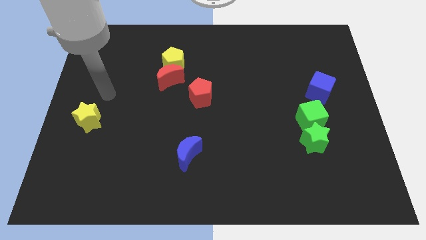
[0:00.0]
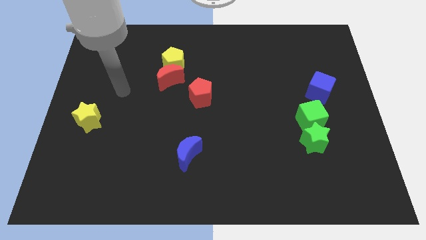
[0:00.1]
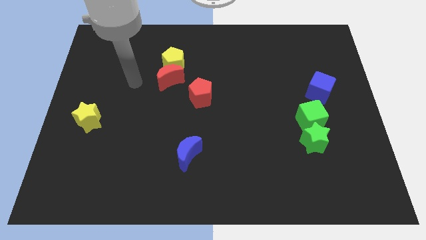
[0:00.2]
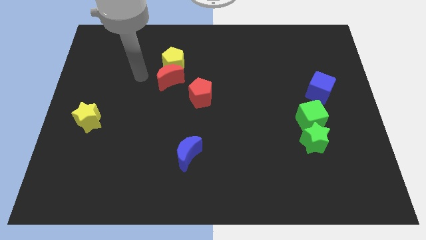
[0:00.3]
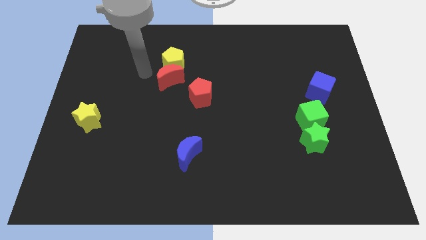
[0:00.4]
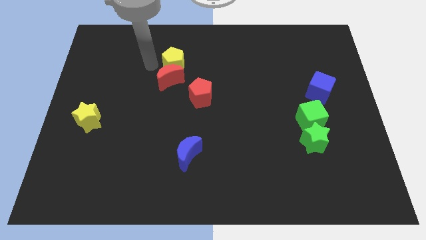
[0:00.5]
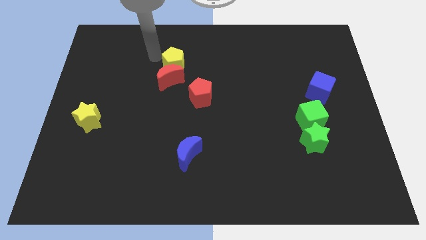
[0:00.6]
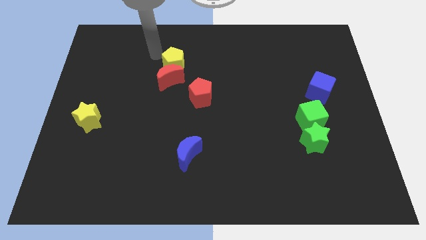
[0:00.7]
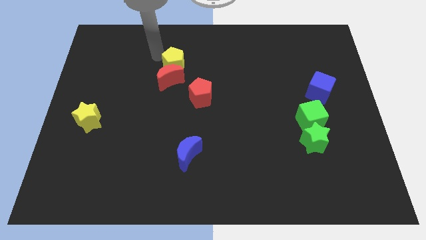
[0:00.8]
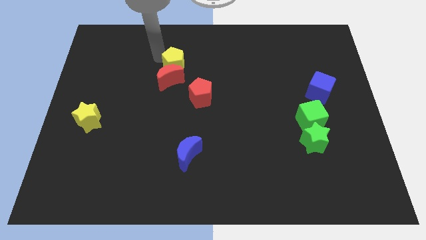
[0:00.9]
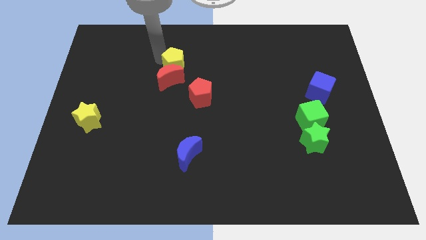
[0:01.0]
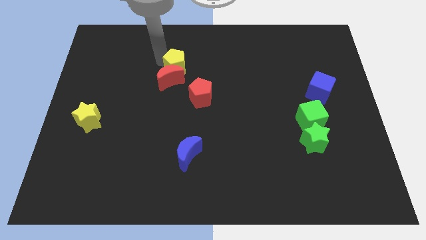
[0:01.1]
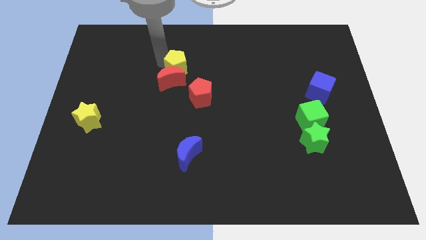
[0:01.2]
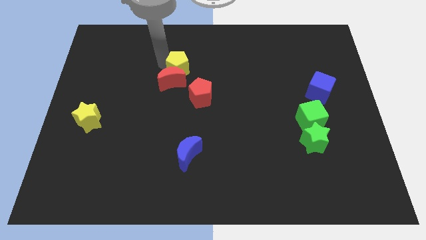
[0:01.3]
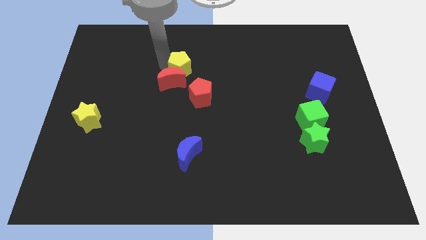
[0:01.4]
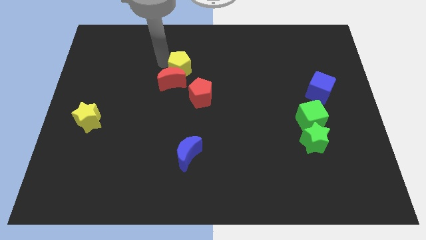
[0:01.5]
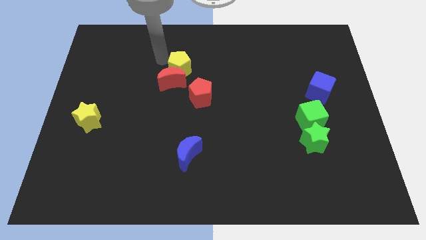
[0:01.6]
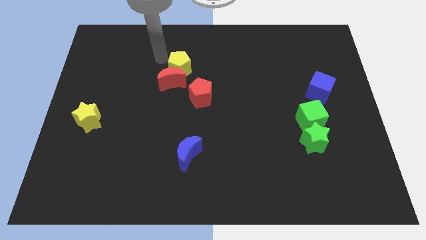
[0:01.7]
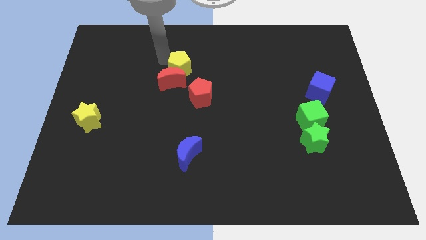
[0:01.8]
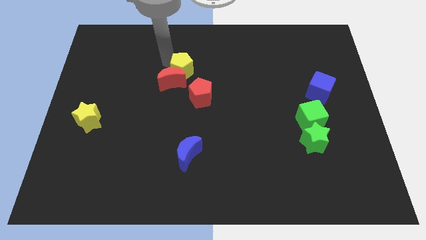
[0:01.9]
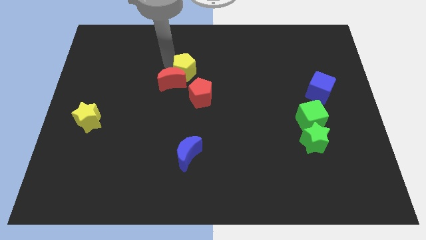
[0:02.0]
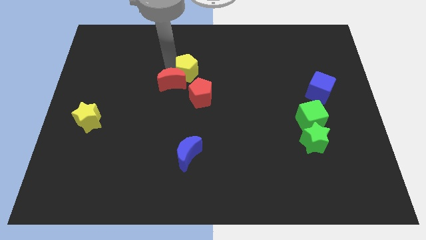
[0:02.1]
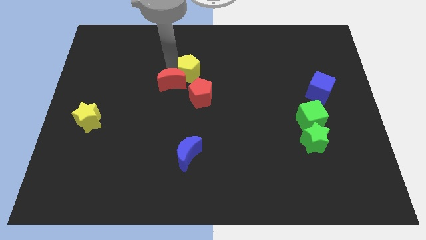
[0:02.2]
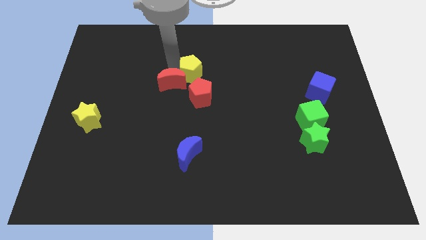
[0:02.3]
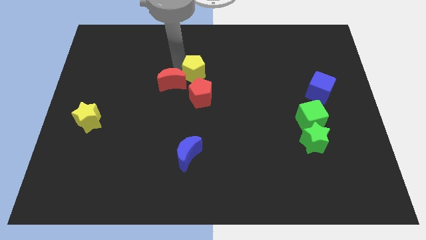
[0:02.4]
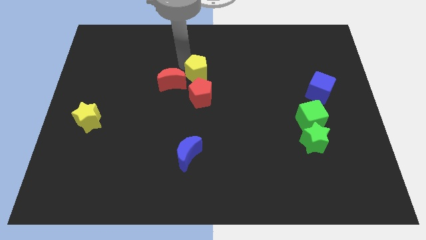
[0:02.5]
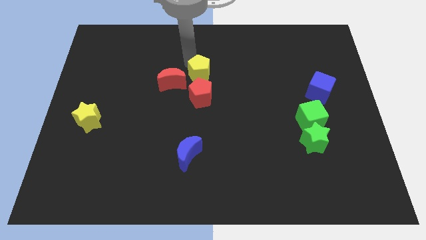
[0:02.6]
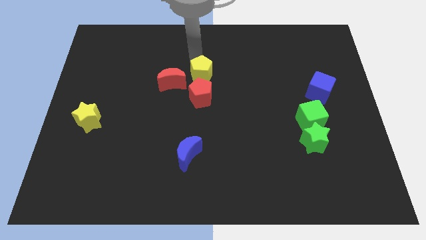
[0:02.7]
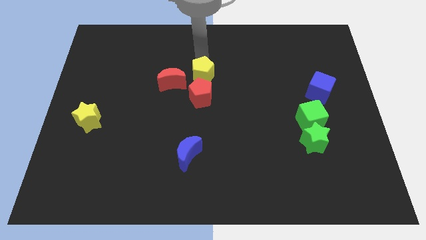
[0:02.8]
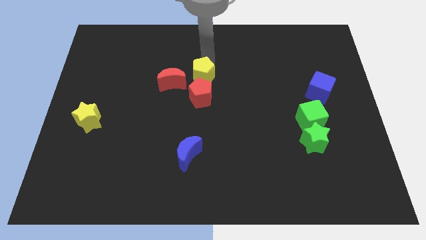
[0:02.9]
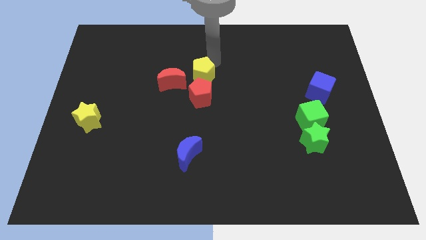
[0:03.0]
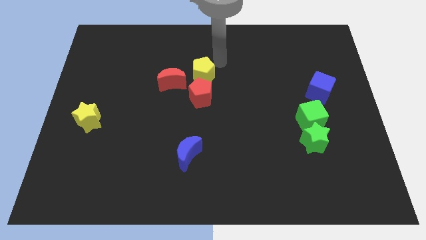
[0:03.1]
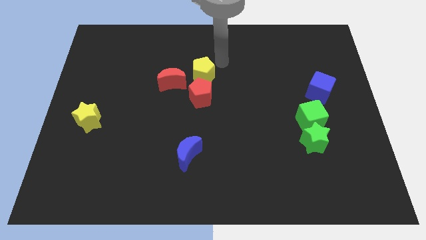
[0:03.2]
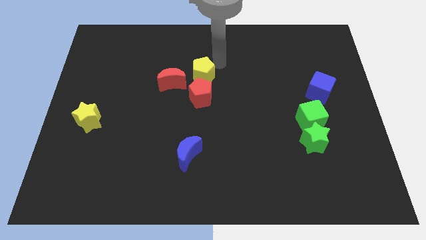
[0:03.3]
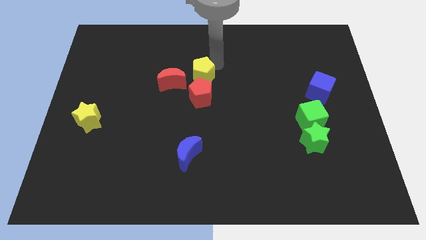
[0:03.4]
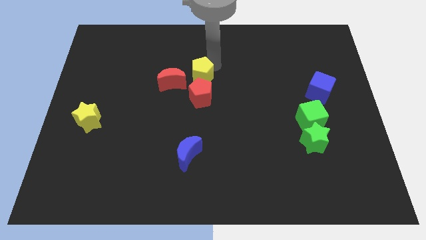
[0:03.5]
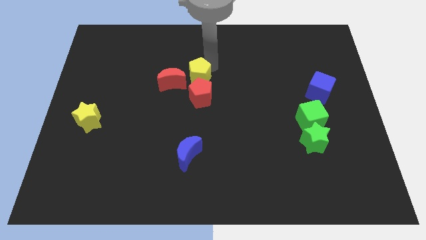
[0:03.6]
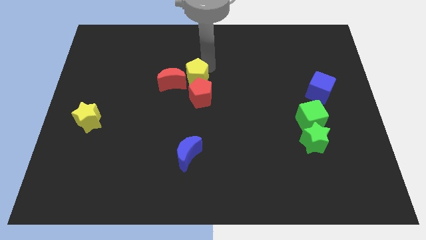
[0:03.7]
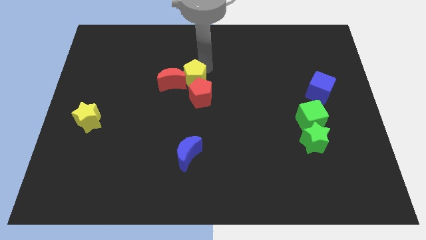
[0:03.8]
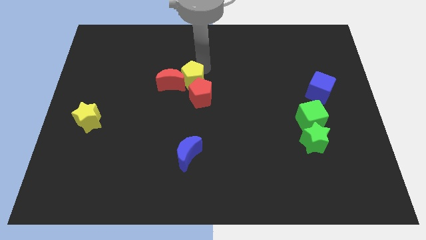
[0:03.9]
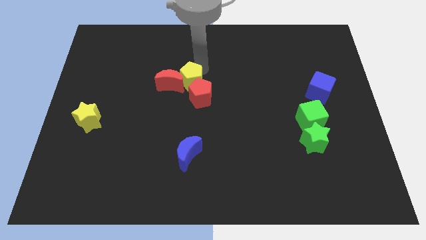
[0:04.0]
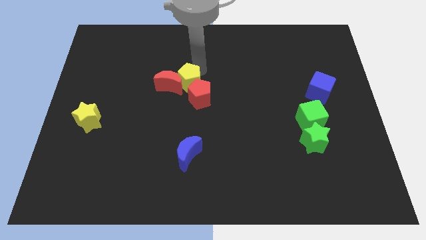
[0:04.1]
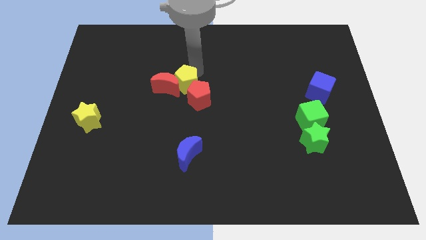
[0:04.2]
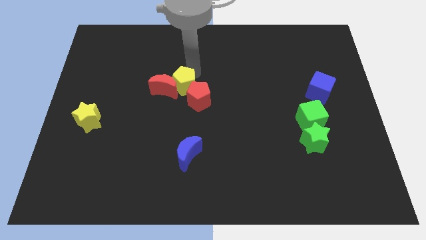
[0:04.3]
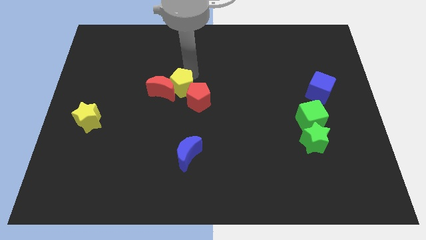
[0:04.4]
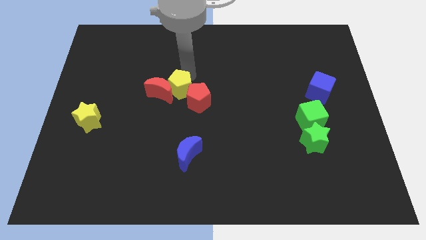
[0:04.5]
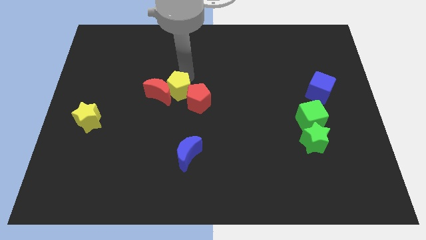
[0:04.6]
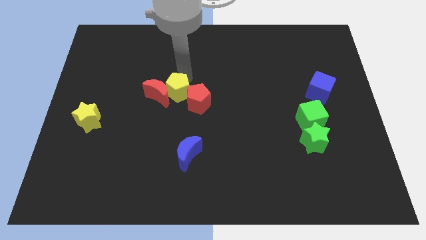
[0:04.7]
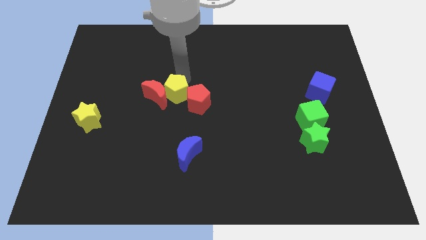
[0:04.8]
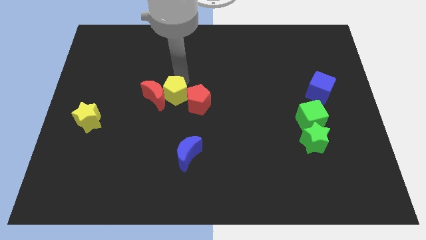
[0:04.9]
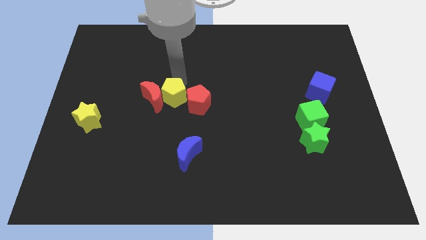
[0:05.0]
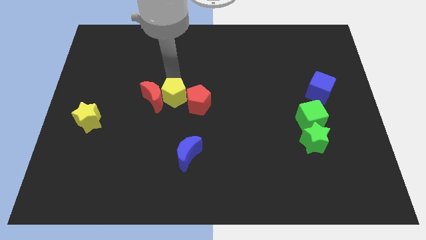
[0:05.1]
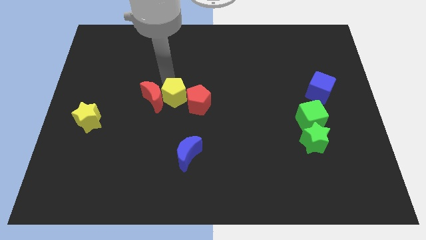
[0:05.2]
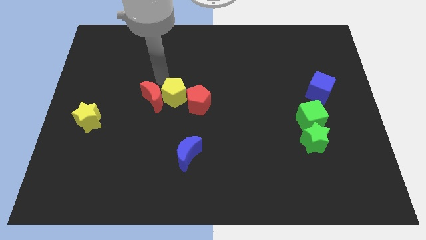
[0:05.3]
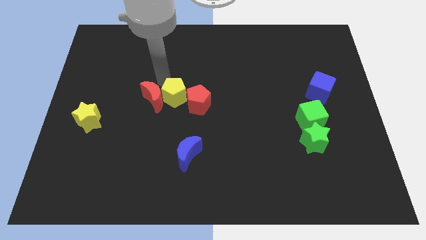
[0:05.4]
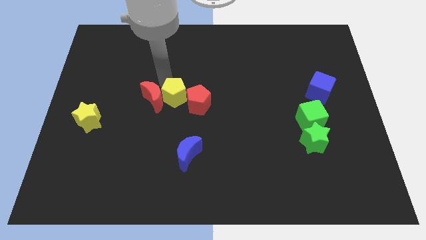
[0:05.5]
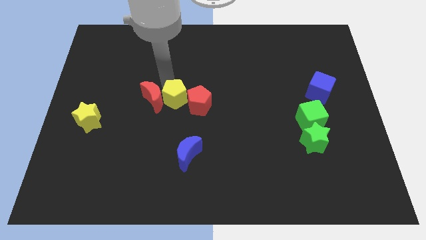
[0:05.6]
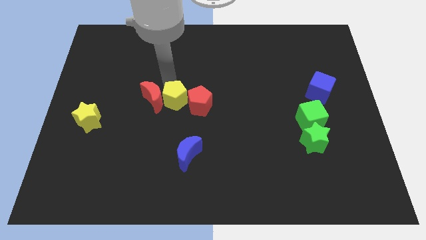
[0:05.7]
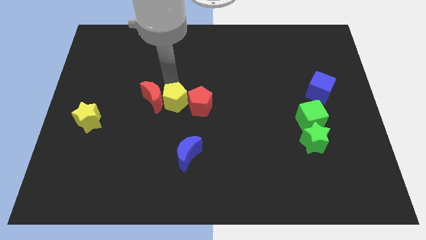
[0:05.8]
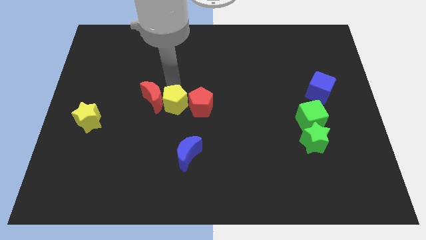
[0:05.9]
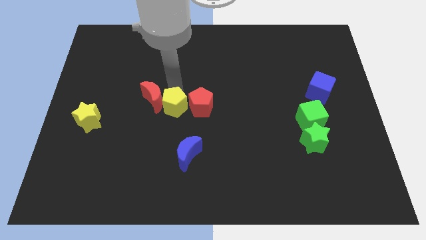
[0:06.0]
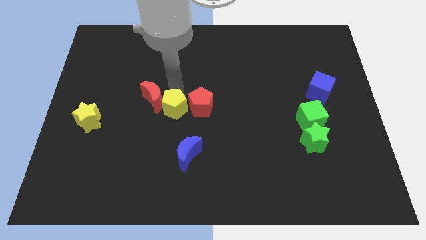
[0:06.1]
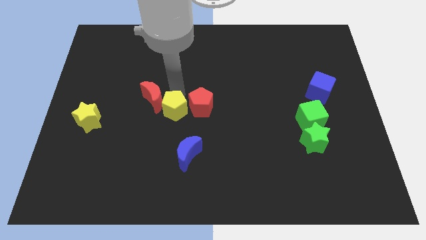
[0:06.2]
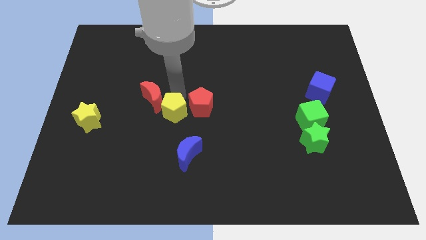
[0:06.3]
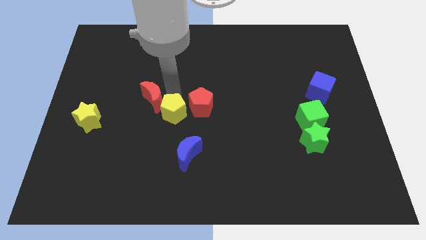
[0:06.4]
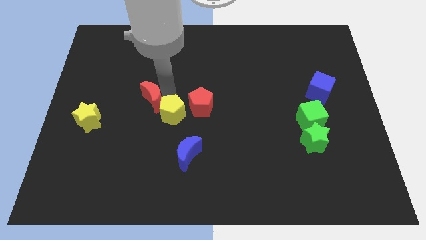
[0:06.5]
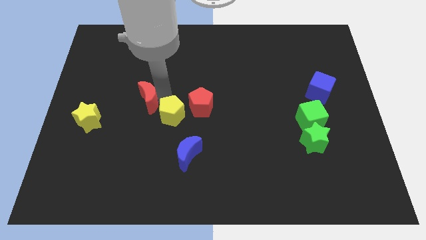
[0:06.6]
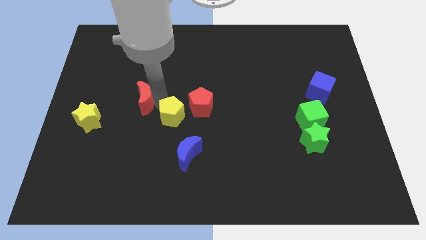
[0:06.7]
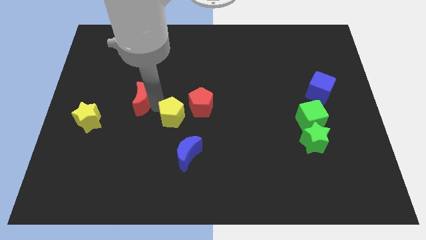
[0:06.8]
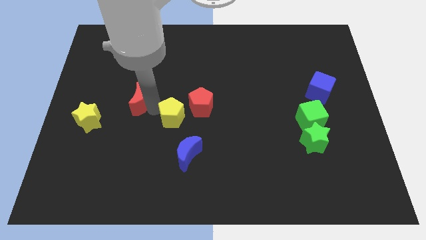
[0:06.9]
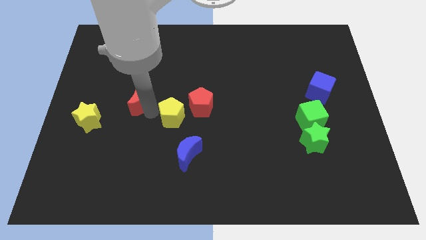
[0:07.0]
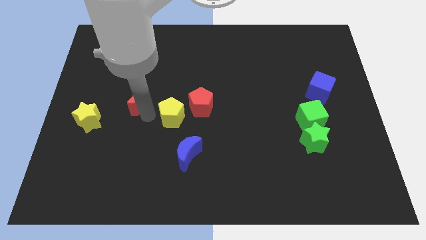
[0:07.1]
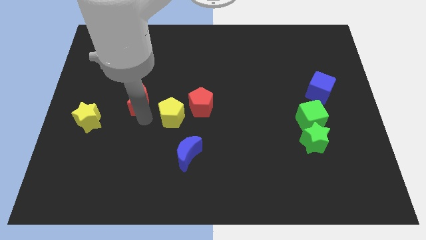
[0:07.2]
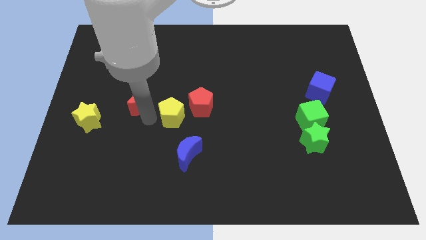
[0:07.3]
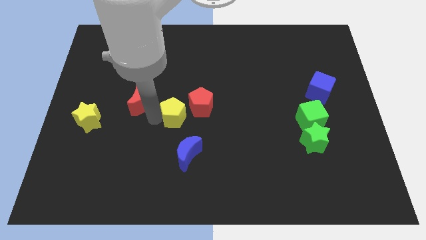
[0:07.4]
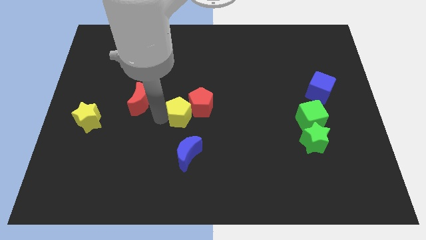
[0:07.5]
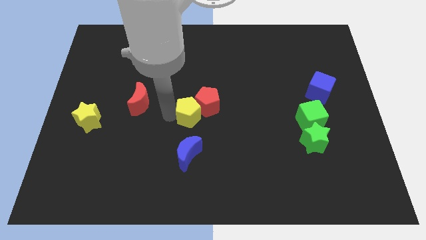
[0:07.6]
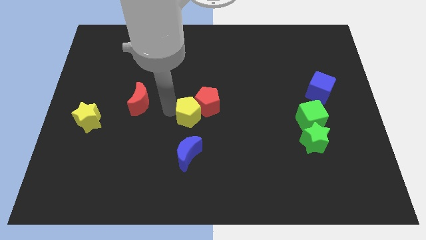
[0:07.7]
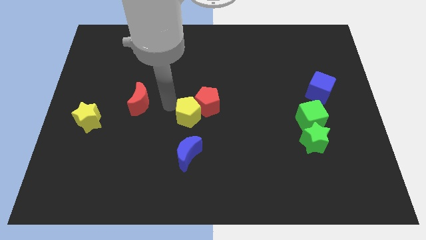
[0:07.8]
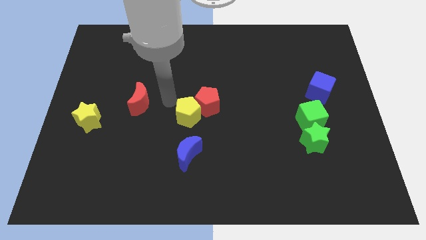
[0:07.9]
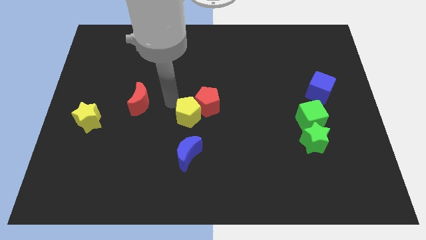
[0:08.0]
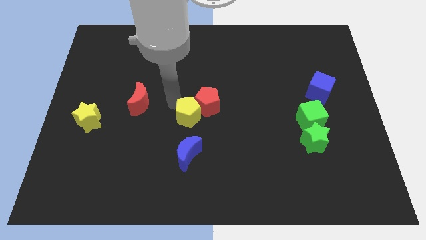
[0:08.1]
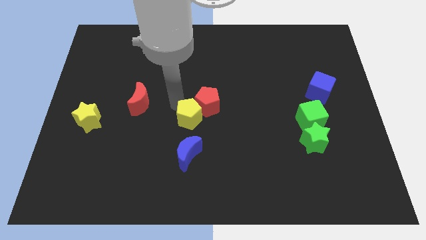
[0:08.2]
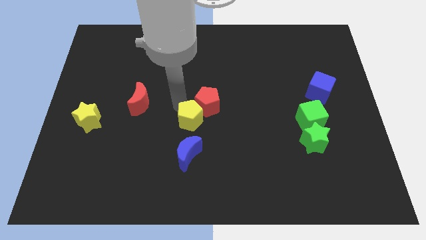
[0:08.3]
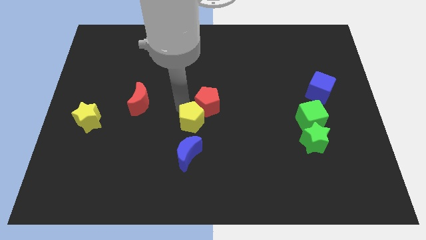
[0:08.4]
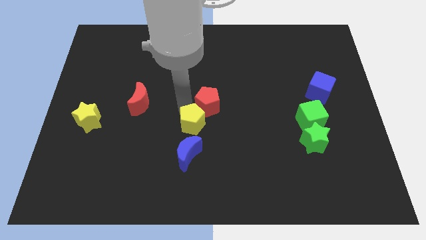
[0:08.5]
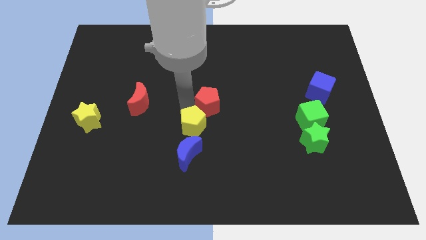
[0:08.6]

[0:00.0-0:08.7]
push the yellow pentagon to the top right of the blue moon

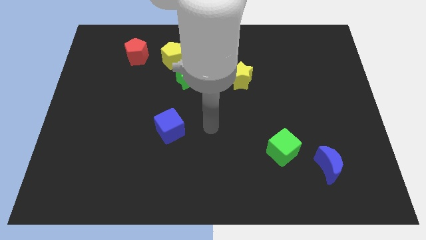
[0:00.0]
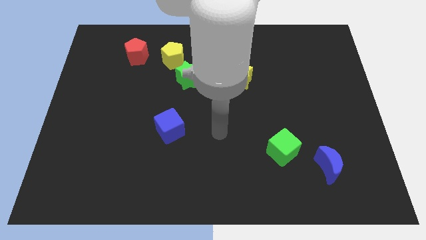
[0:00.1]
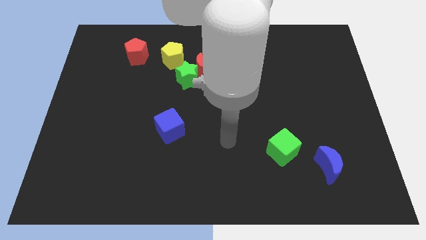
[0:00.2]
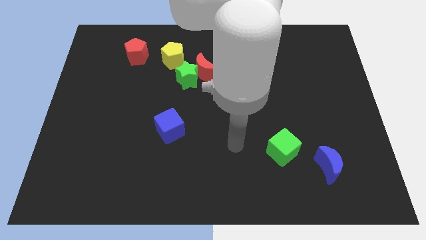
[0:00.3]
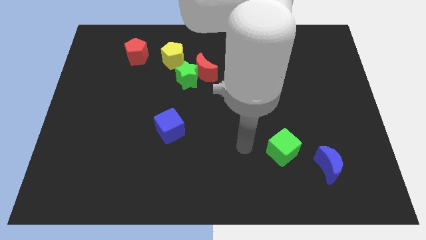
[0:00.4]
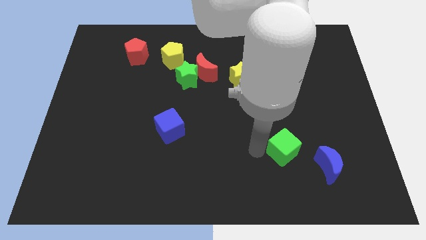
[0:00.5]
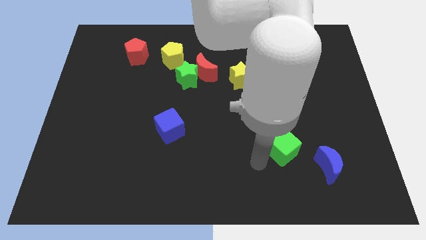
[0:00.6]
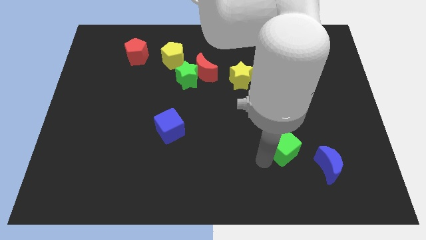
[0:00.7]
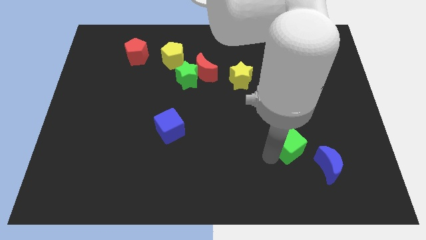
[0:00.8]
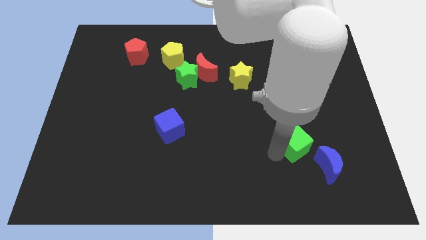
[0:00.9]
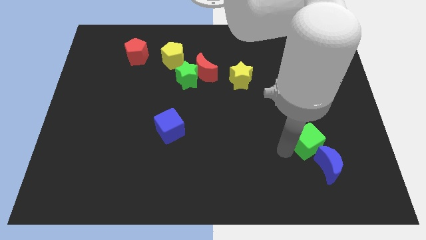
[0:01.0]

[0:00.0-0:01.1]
push the green cube to the top of the blue moon
